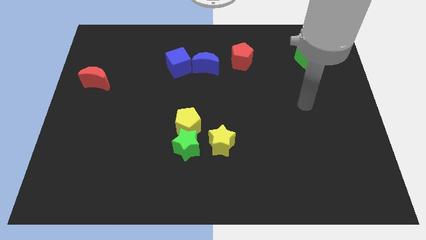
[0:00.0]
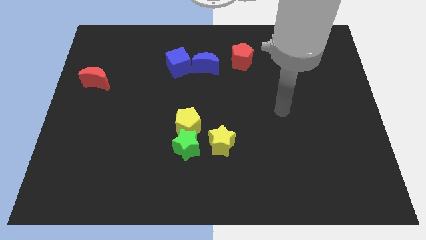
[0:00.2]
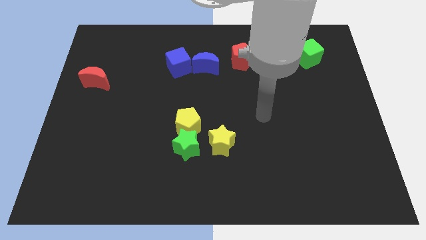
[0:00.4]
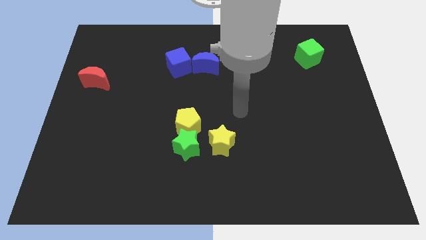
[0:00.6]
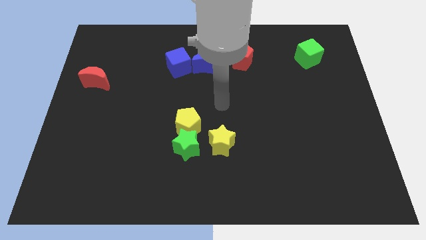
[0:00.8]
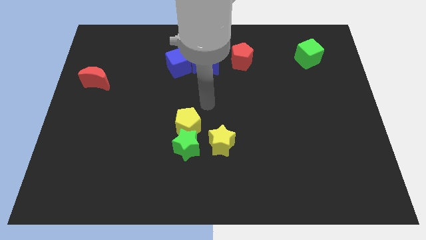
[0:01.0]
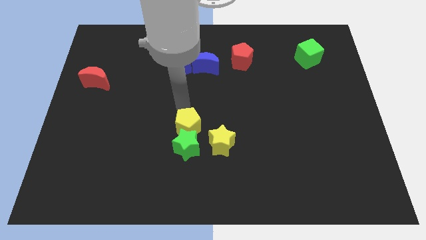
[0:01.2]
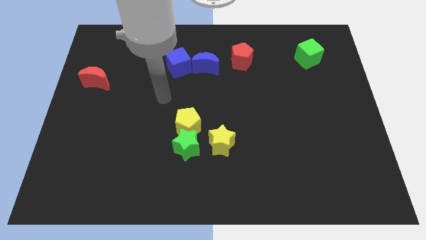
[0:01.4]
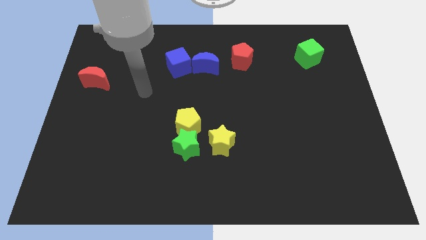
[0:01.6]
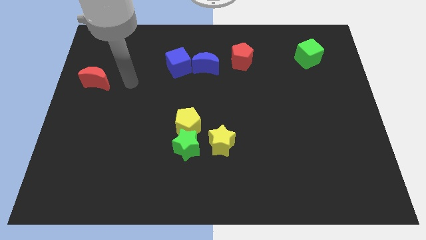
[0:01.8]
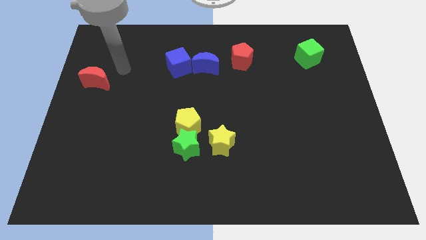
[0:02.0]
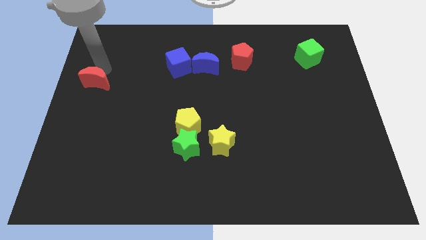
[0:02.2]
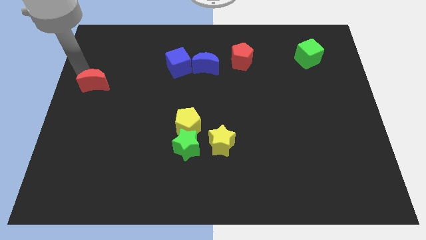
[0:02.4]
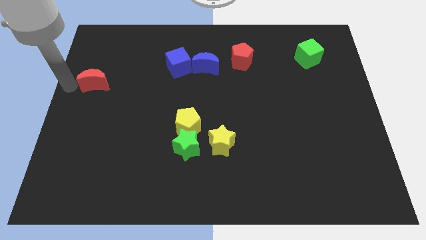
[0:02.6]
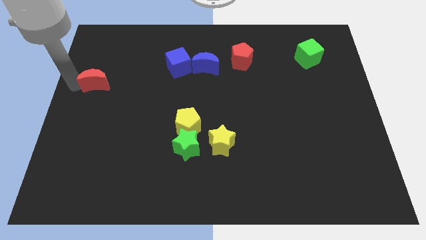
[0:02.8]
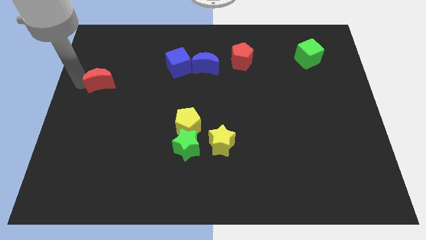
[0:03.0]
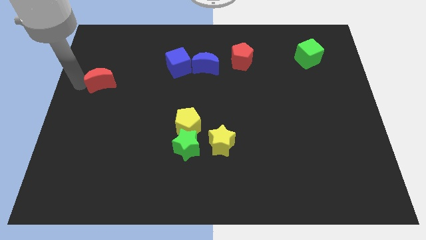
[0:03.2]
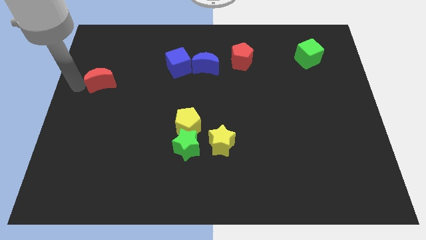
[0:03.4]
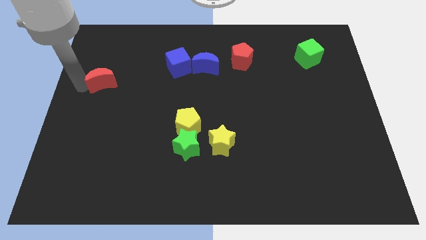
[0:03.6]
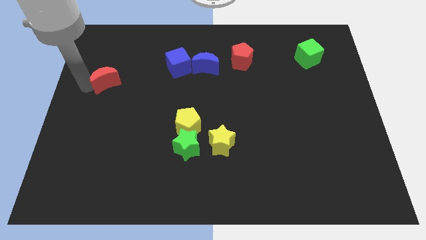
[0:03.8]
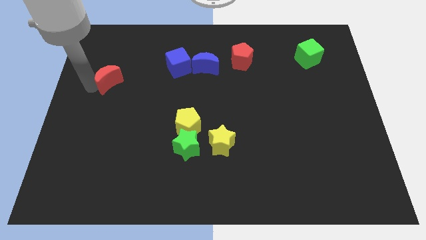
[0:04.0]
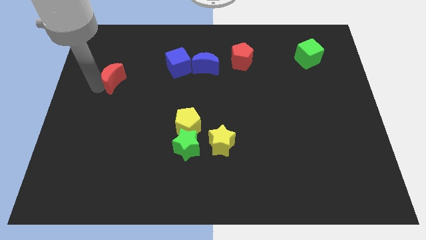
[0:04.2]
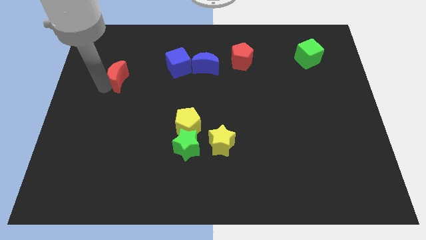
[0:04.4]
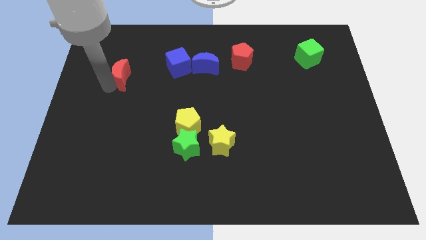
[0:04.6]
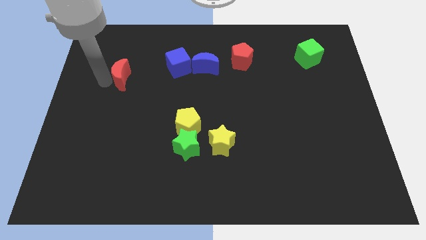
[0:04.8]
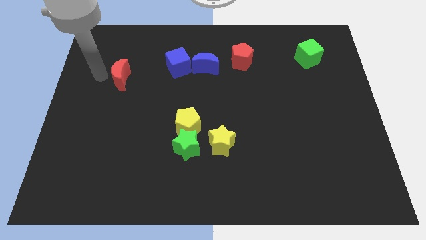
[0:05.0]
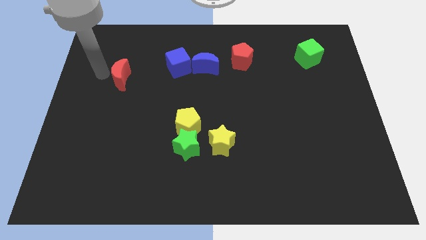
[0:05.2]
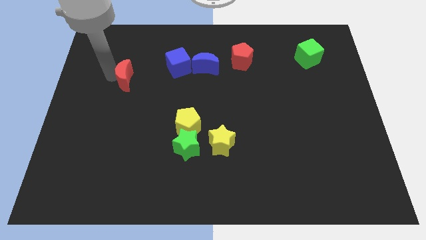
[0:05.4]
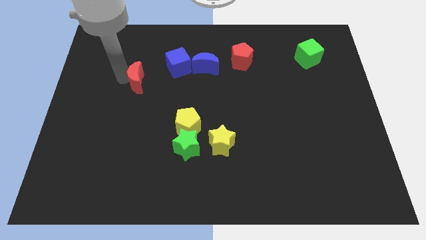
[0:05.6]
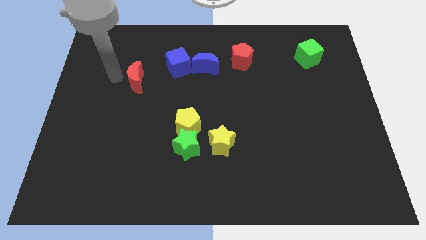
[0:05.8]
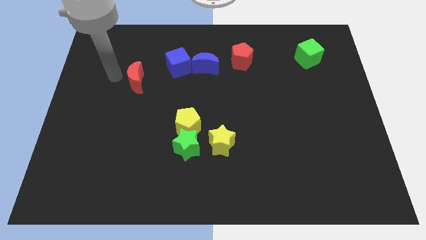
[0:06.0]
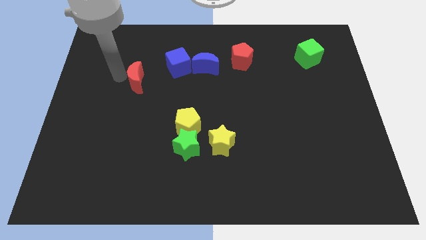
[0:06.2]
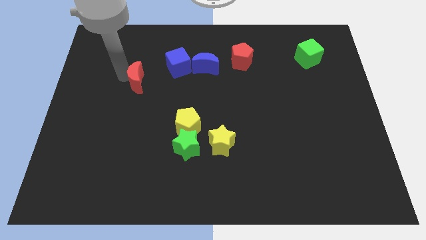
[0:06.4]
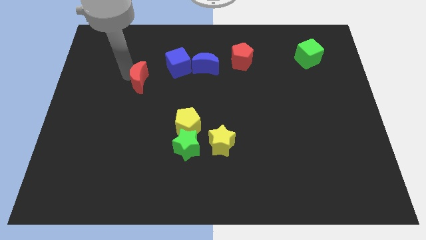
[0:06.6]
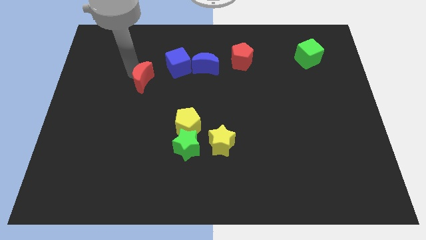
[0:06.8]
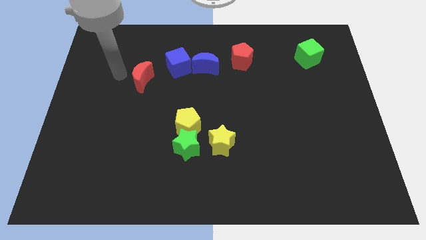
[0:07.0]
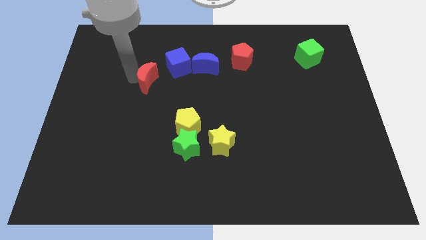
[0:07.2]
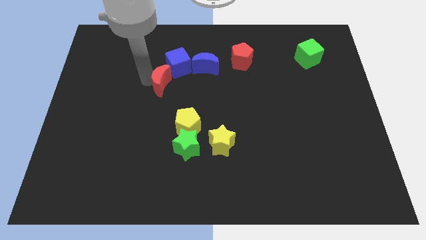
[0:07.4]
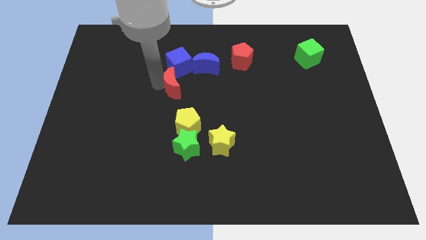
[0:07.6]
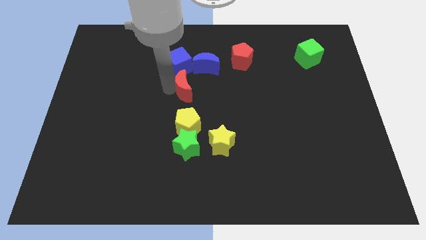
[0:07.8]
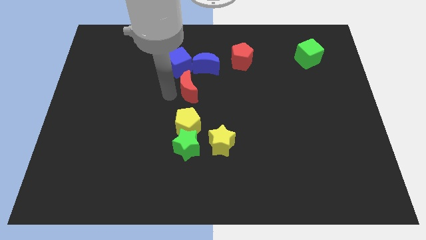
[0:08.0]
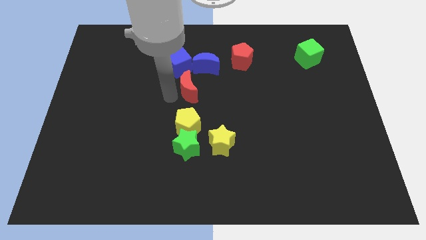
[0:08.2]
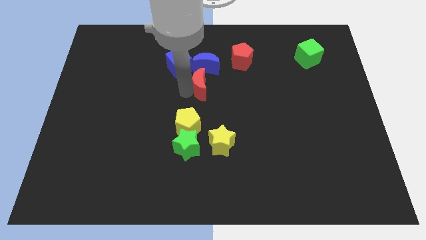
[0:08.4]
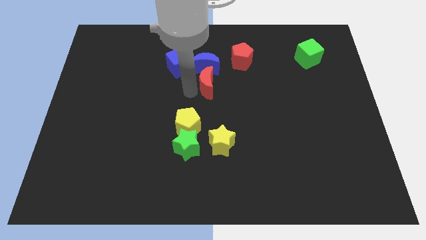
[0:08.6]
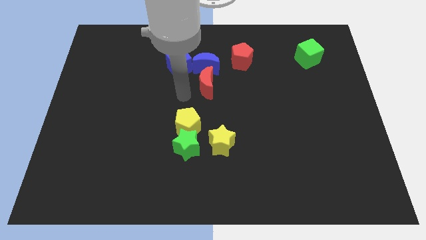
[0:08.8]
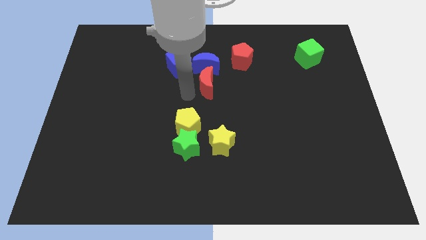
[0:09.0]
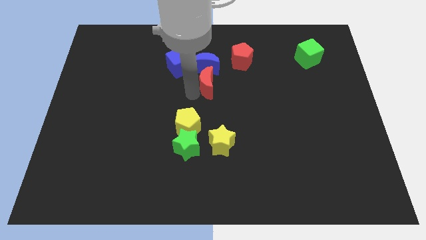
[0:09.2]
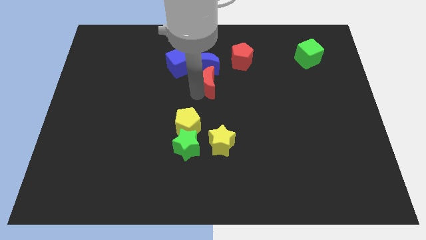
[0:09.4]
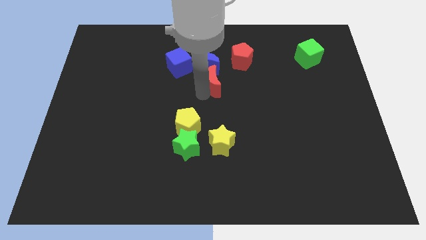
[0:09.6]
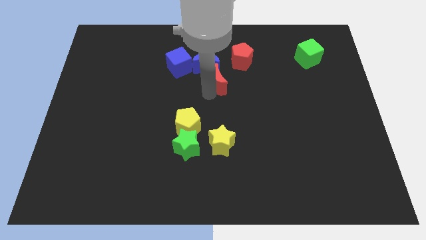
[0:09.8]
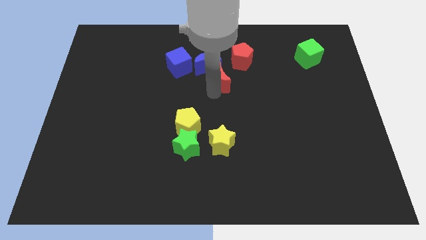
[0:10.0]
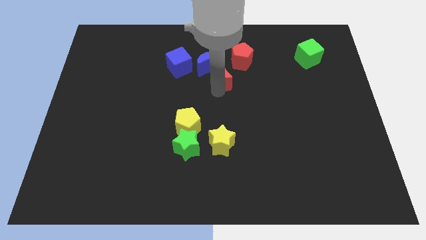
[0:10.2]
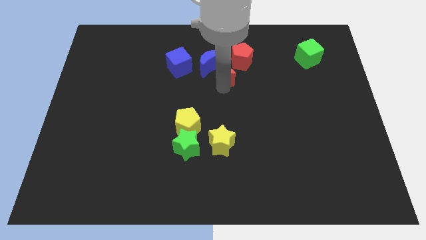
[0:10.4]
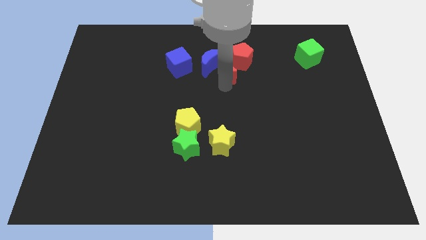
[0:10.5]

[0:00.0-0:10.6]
move the red moon to the red pentagon

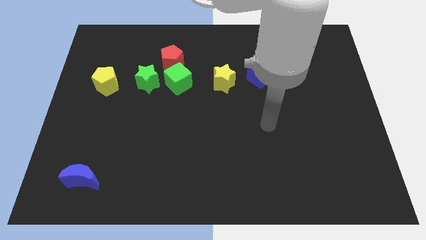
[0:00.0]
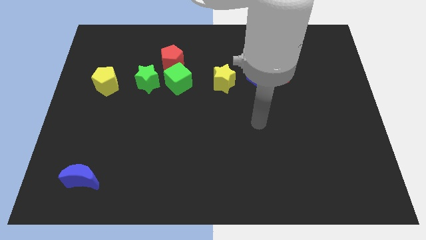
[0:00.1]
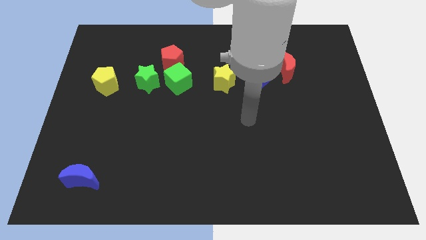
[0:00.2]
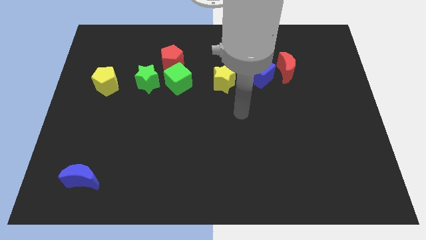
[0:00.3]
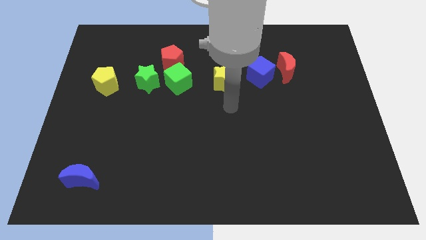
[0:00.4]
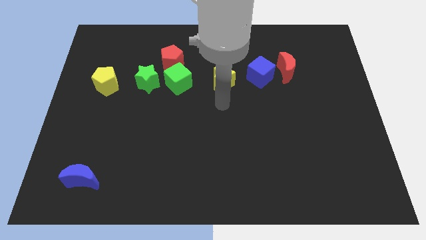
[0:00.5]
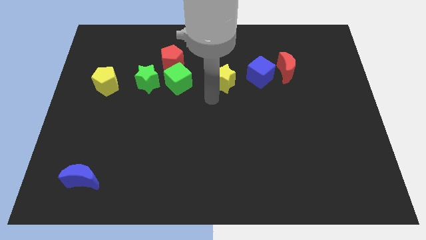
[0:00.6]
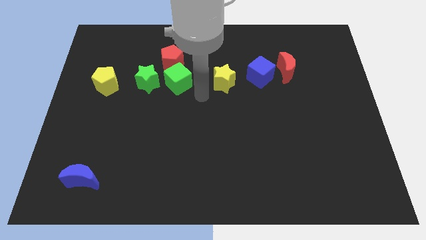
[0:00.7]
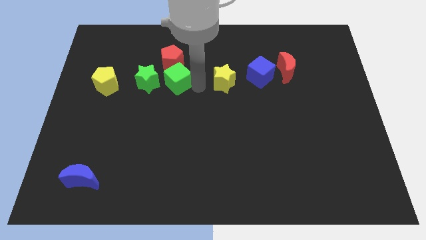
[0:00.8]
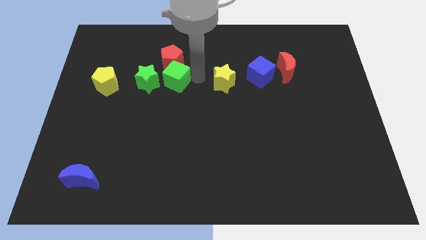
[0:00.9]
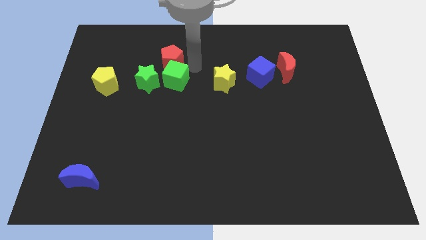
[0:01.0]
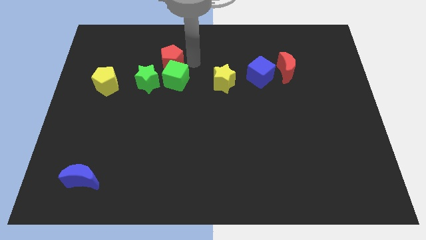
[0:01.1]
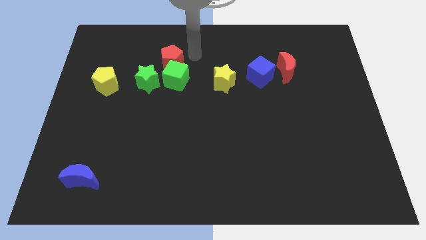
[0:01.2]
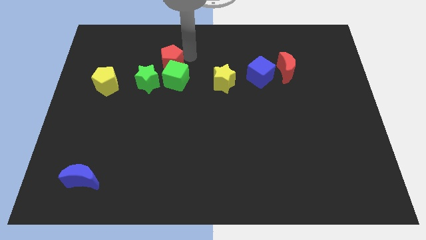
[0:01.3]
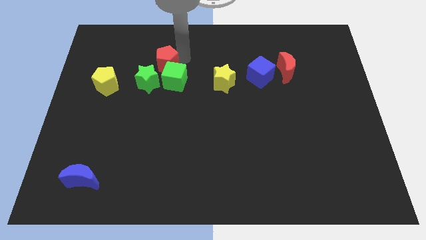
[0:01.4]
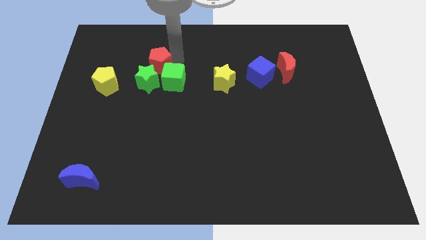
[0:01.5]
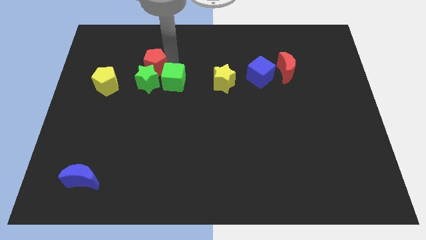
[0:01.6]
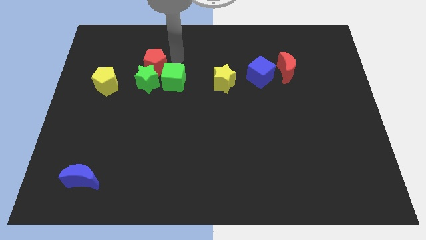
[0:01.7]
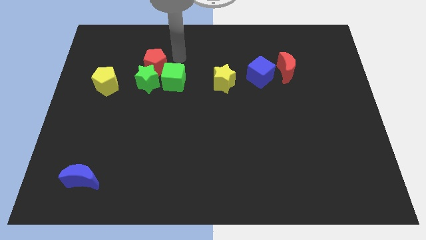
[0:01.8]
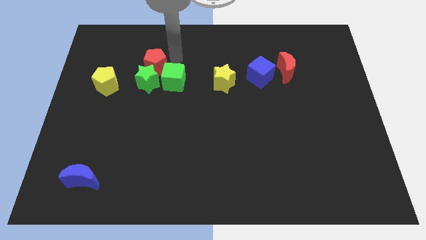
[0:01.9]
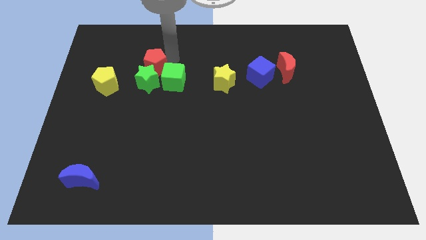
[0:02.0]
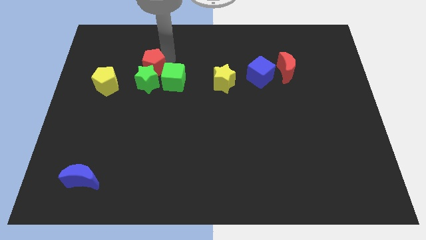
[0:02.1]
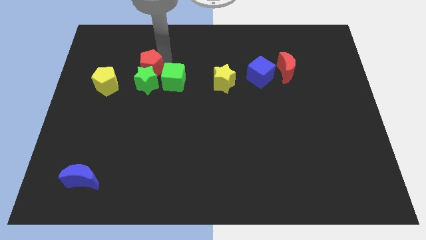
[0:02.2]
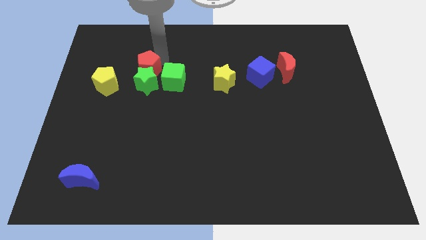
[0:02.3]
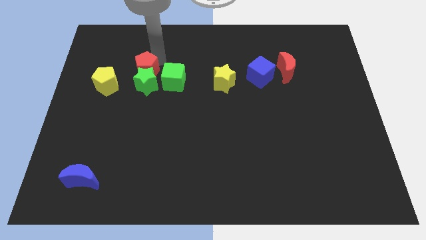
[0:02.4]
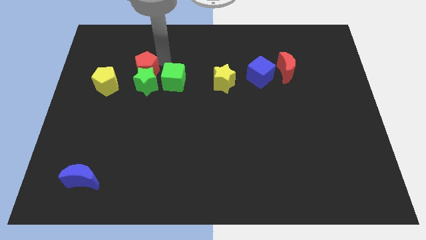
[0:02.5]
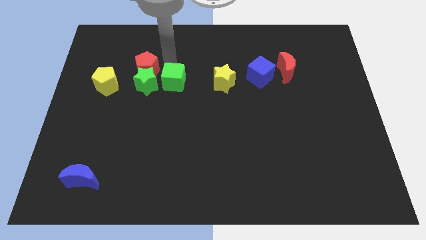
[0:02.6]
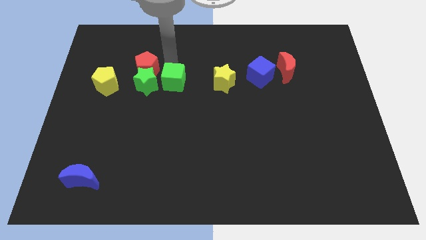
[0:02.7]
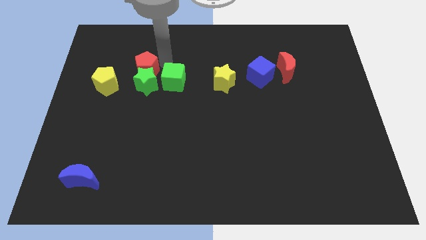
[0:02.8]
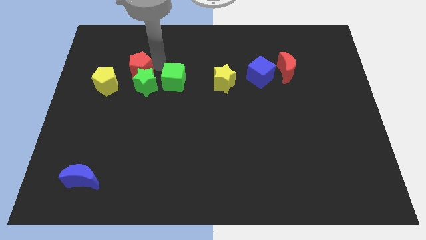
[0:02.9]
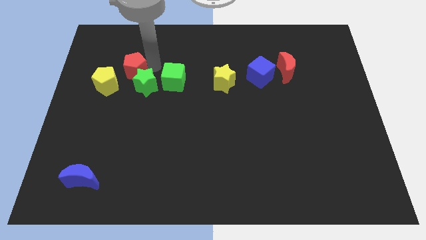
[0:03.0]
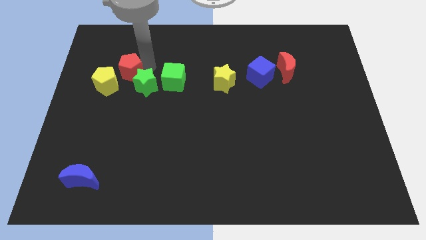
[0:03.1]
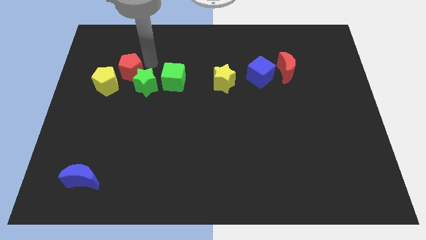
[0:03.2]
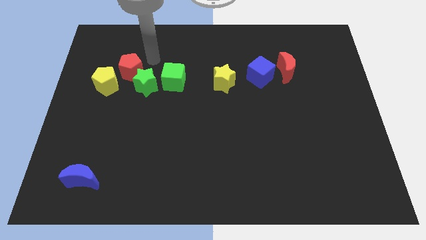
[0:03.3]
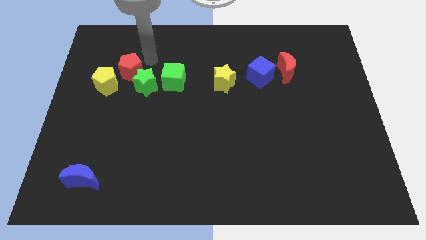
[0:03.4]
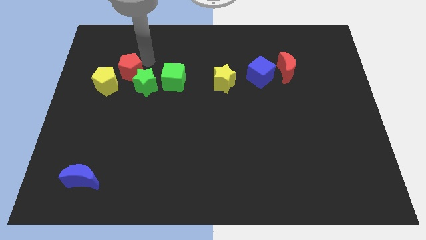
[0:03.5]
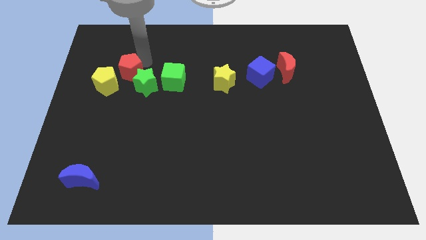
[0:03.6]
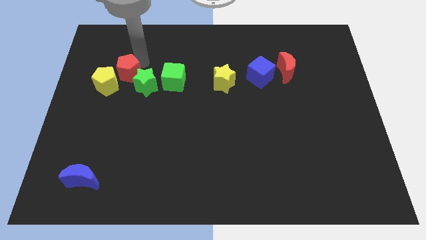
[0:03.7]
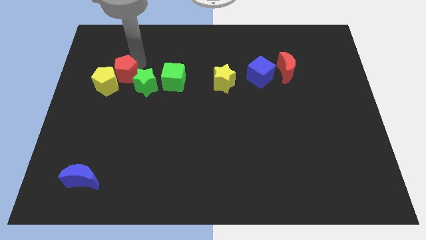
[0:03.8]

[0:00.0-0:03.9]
push the red pentagon to the yellow pentagon
